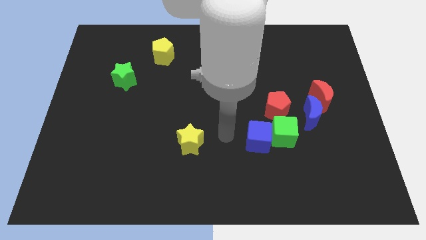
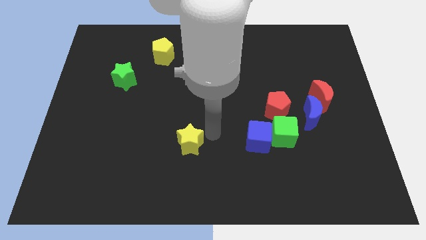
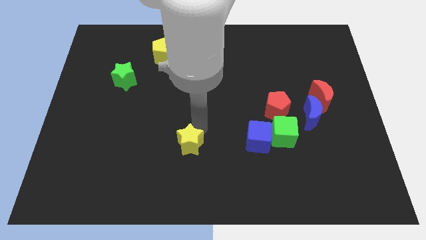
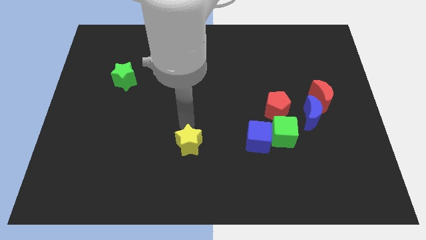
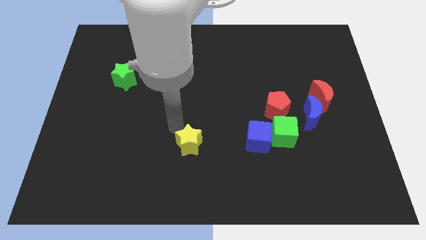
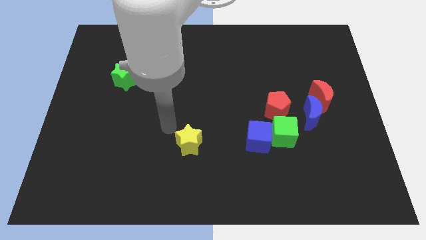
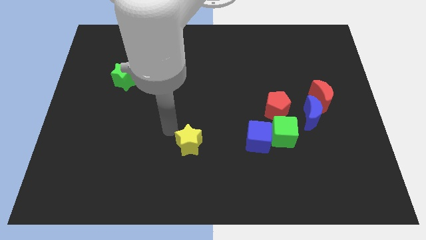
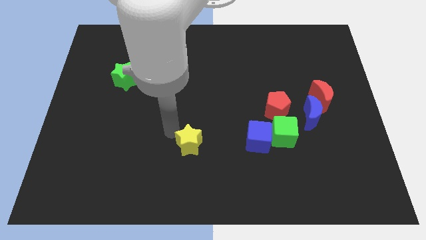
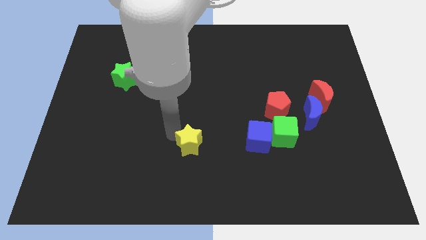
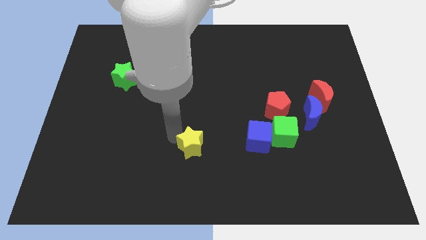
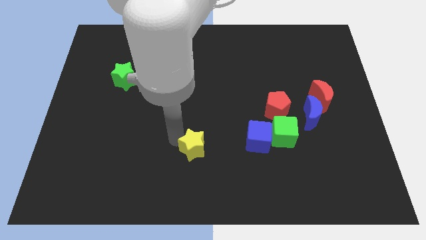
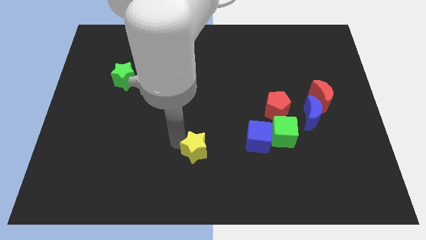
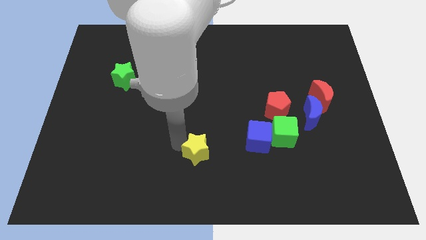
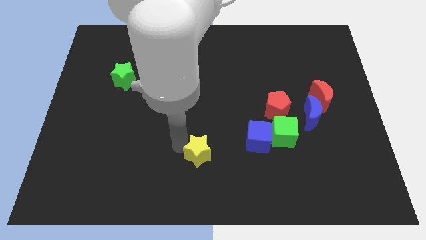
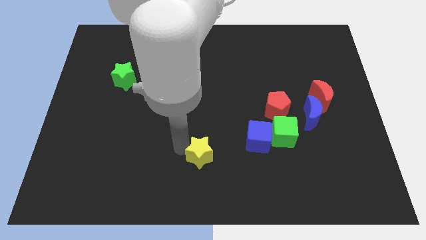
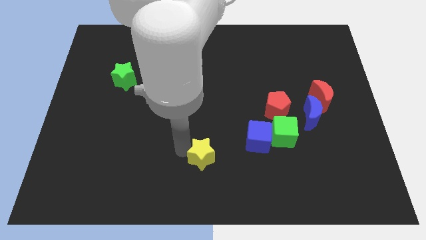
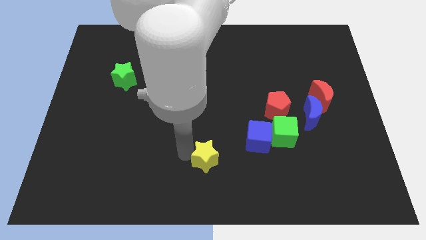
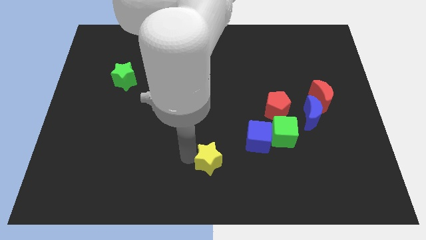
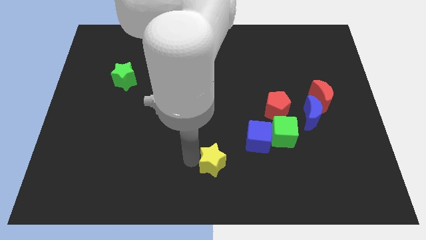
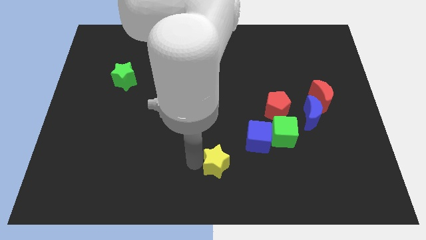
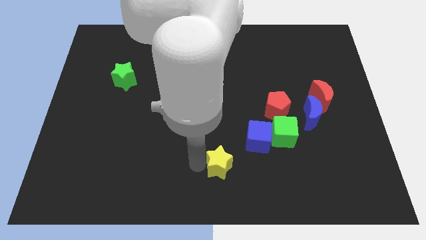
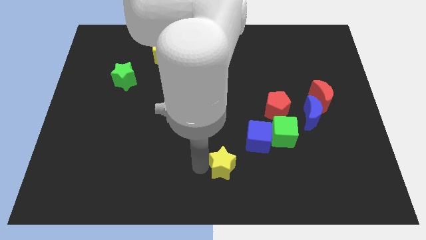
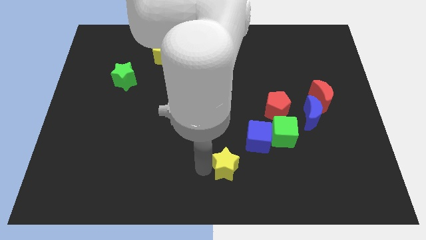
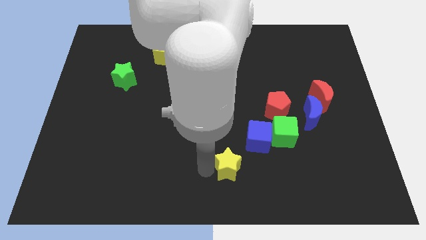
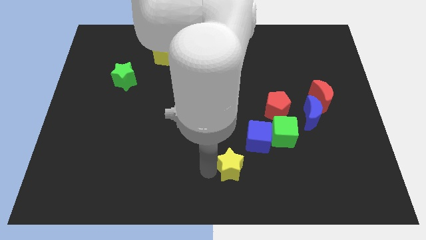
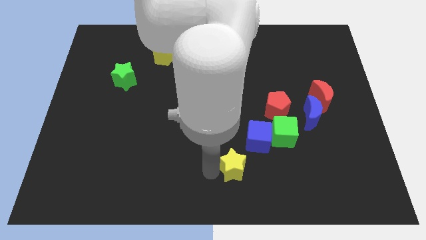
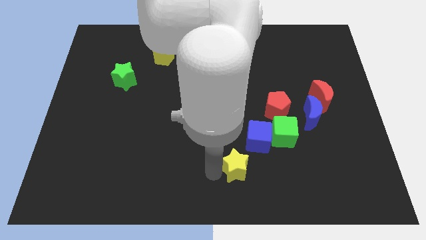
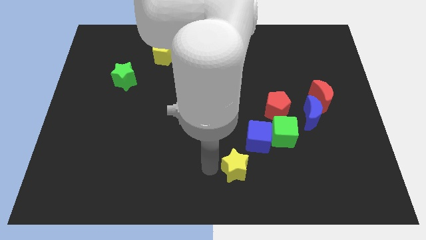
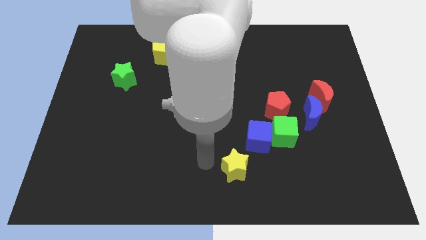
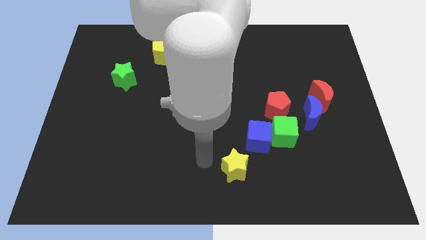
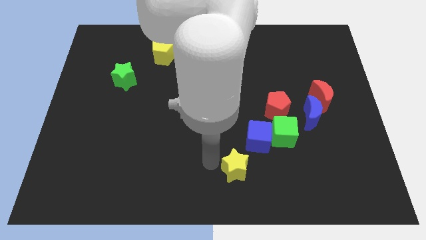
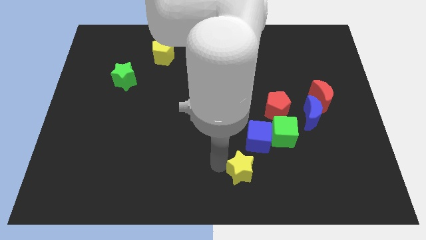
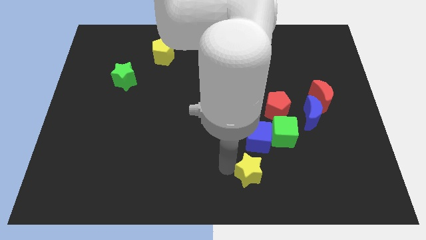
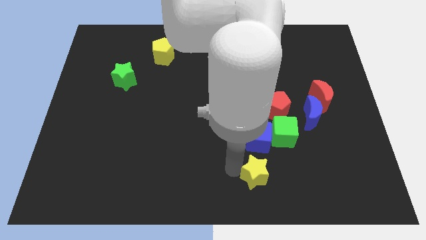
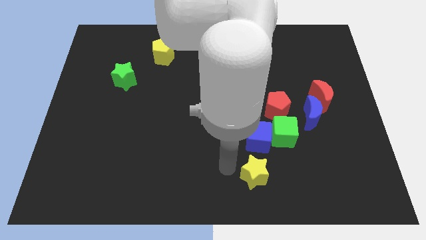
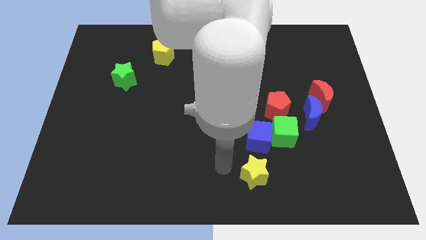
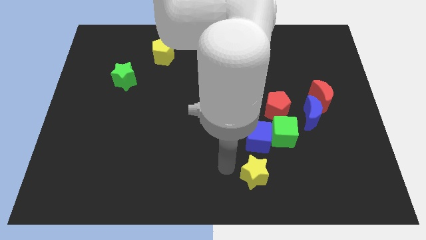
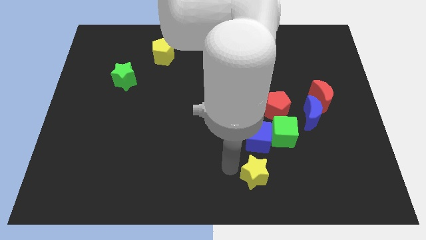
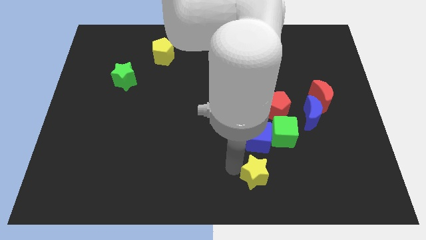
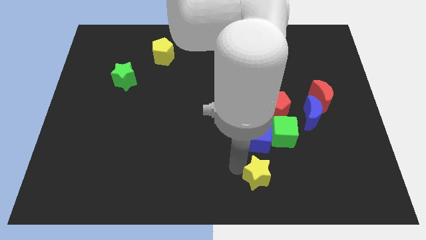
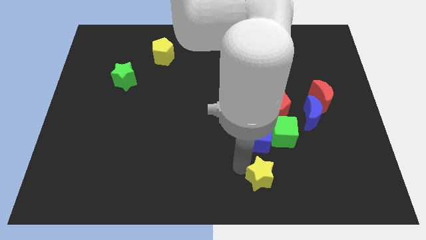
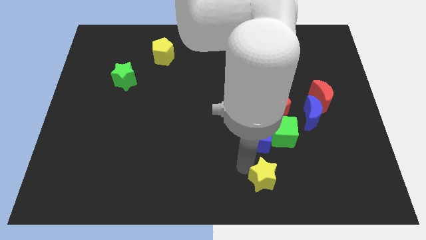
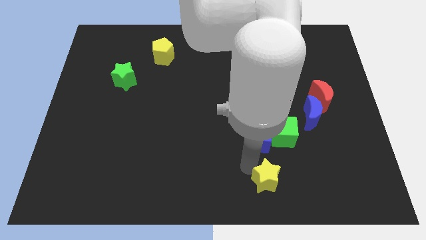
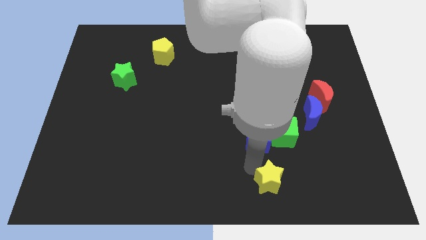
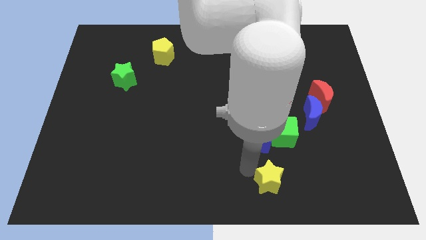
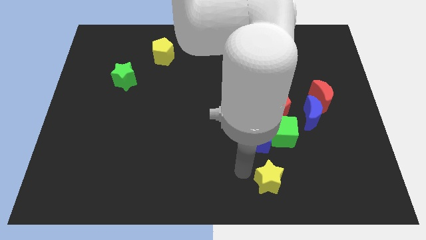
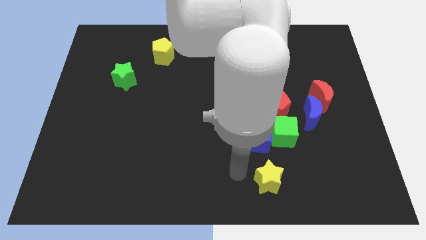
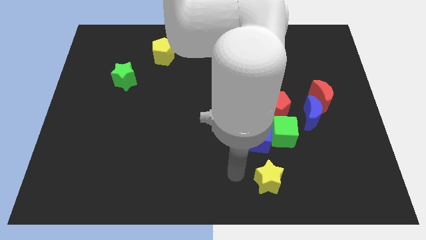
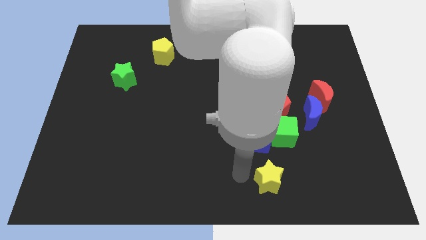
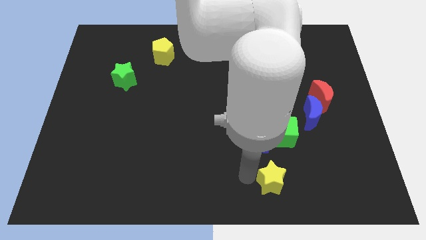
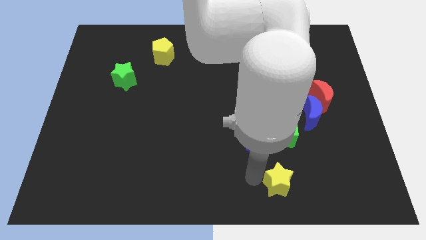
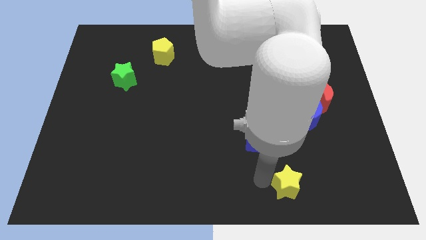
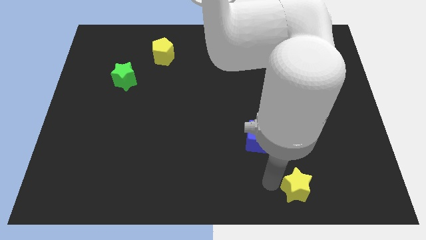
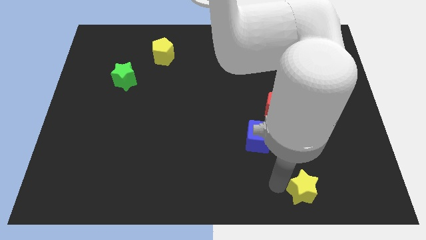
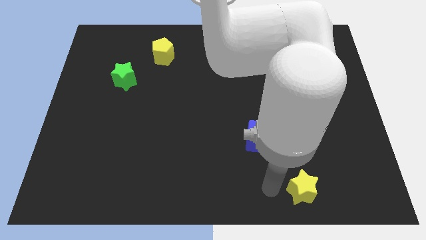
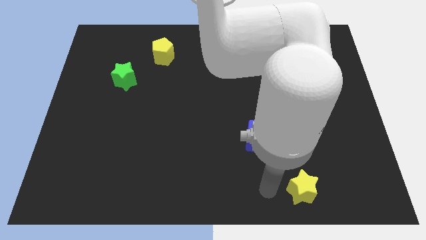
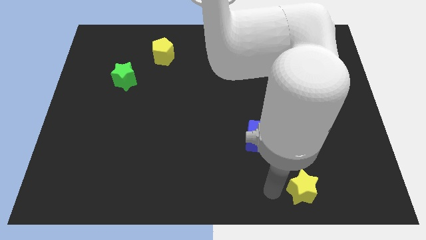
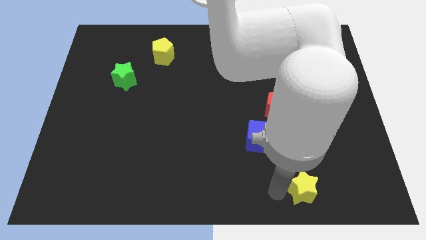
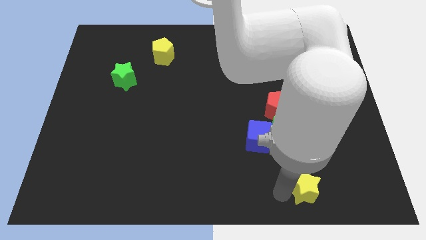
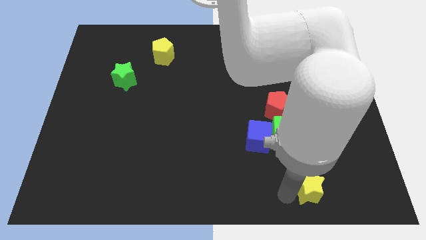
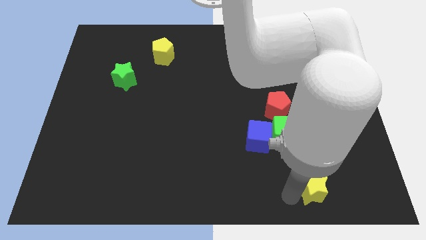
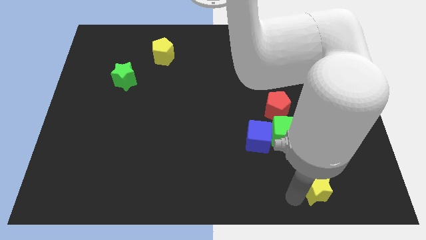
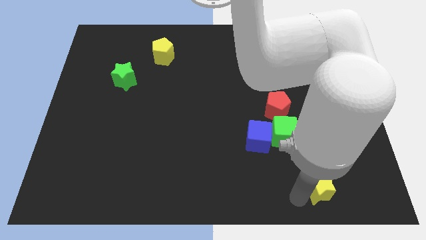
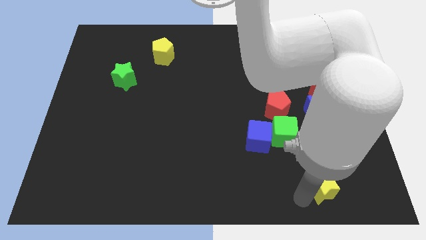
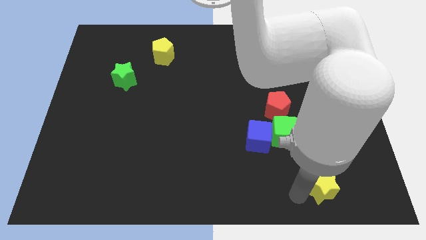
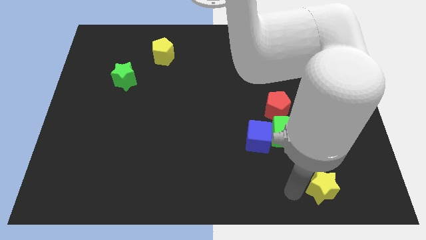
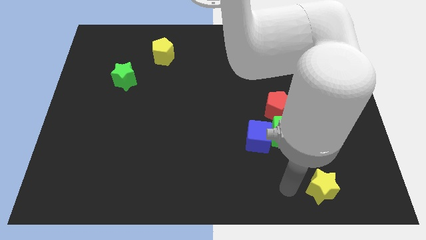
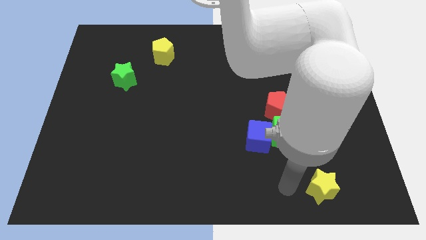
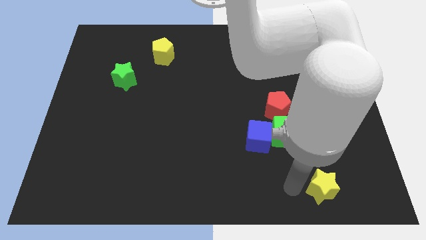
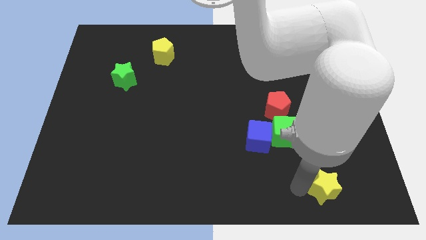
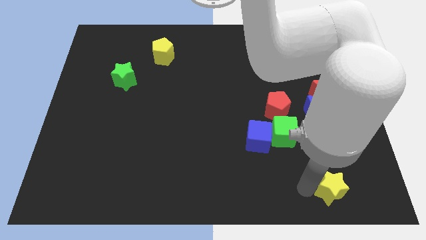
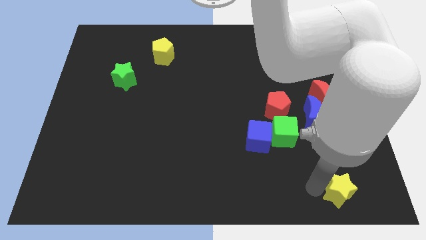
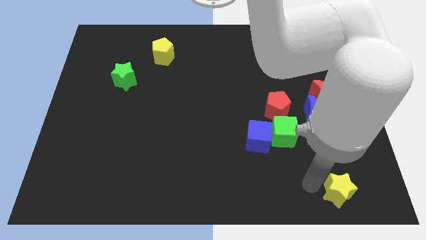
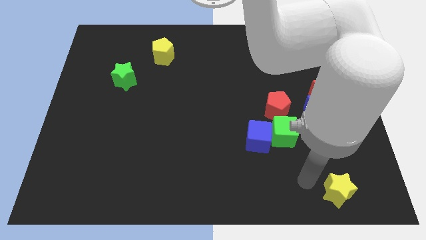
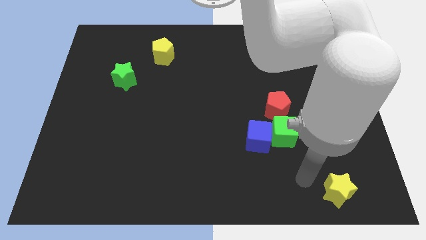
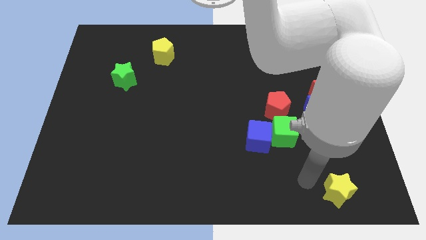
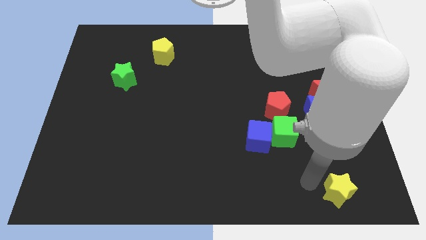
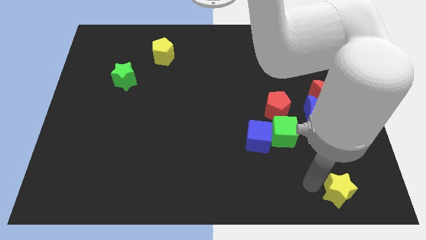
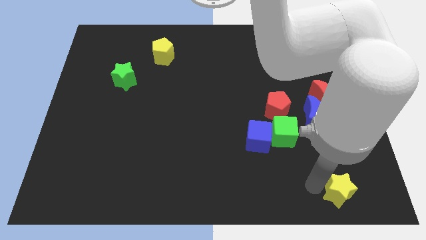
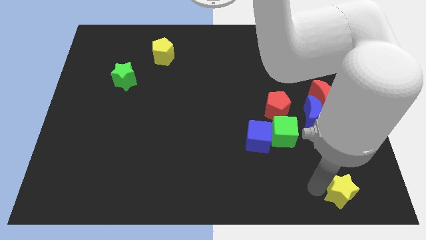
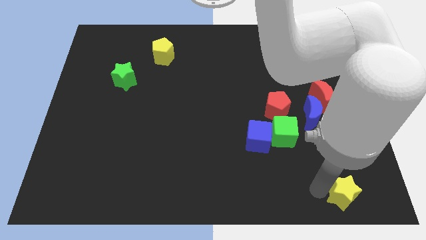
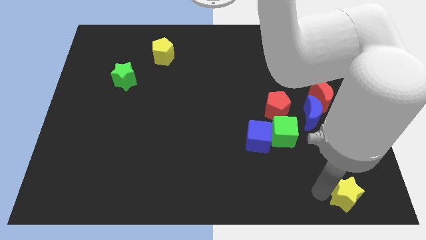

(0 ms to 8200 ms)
put the yellow star to the bottom right of the board
